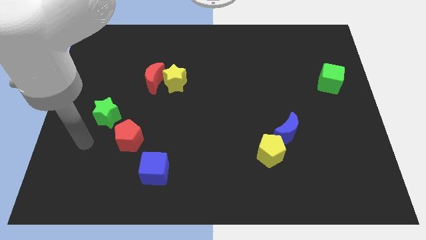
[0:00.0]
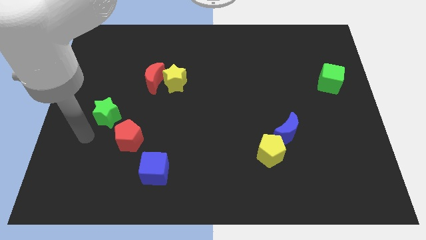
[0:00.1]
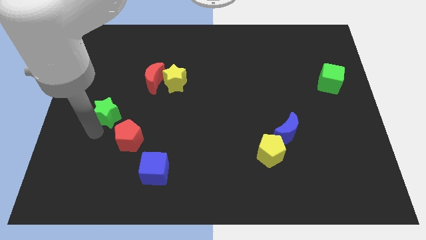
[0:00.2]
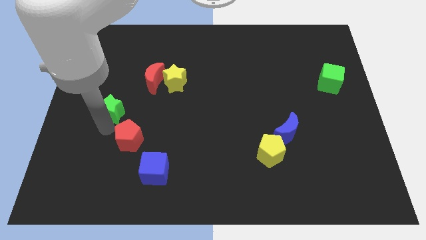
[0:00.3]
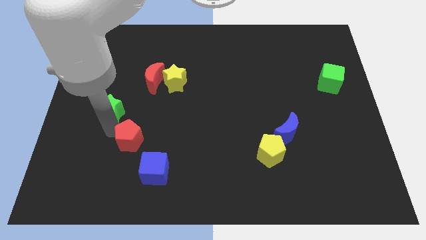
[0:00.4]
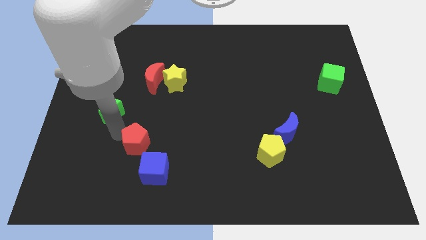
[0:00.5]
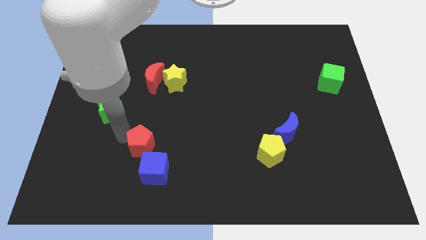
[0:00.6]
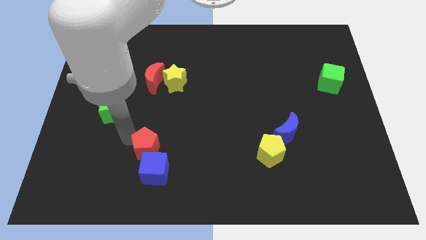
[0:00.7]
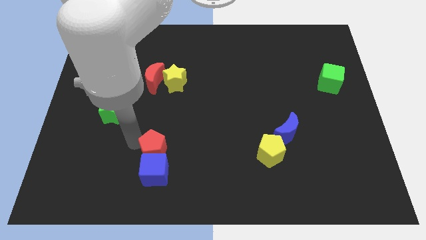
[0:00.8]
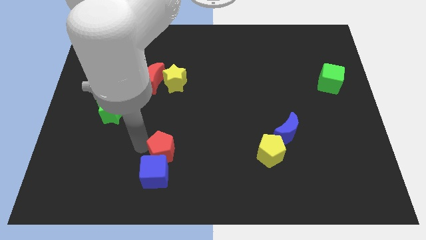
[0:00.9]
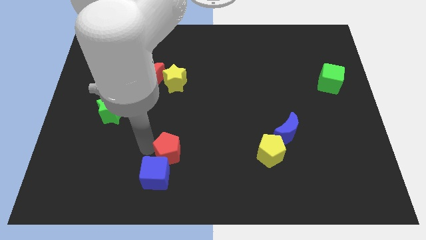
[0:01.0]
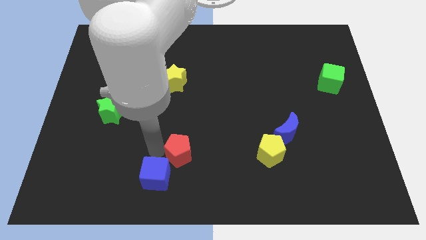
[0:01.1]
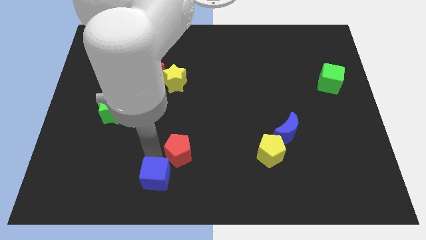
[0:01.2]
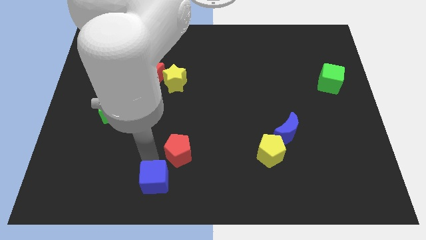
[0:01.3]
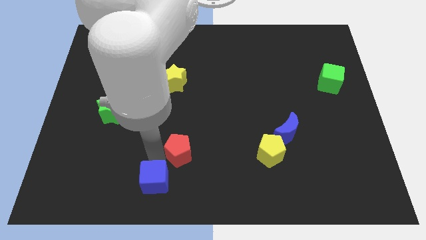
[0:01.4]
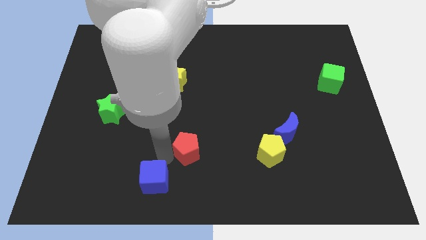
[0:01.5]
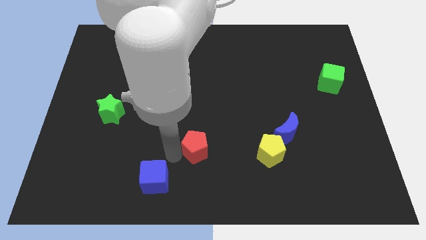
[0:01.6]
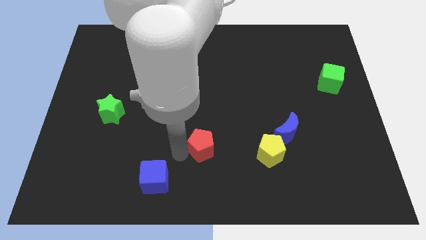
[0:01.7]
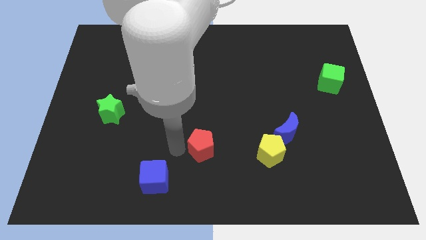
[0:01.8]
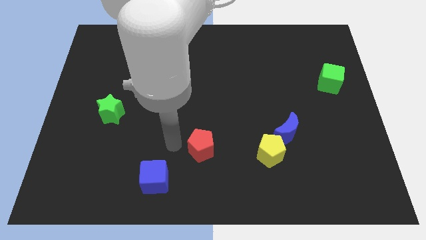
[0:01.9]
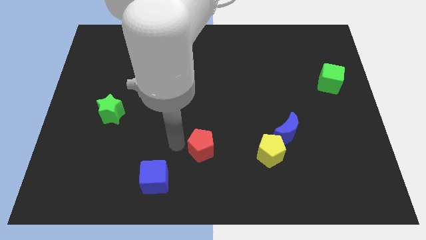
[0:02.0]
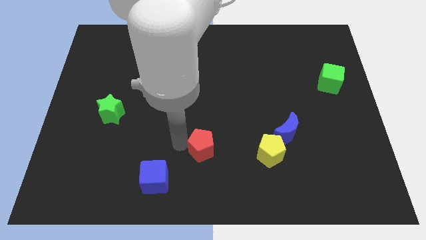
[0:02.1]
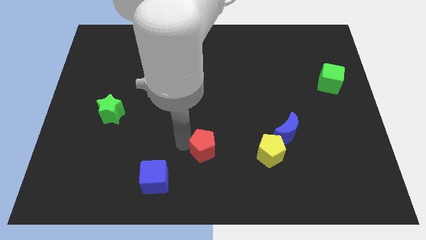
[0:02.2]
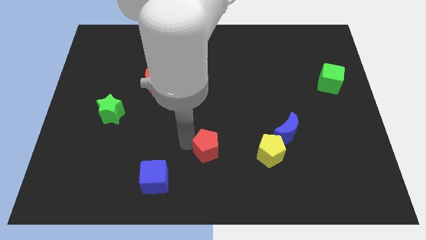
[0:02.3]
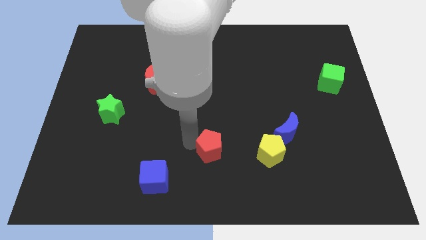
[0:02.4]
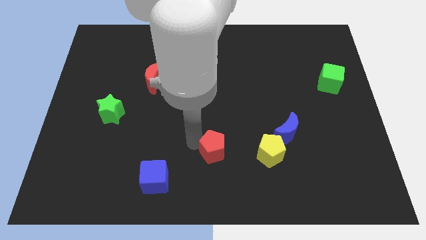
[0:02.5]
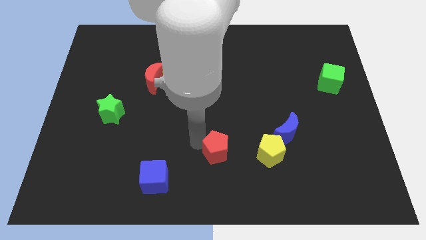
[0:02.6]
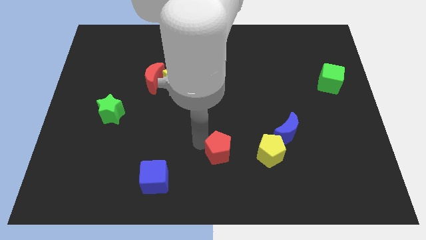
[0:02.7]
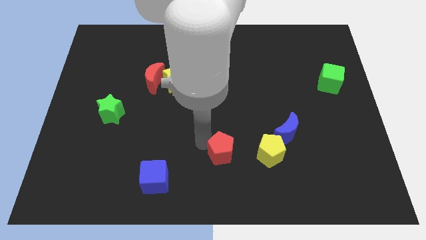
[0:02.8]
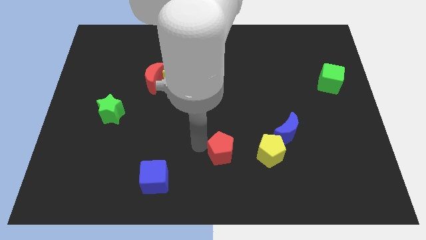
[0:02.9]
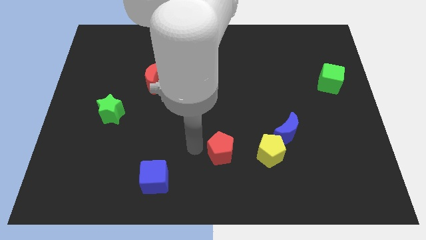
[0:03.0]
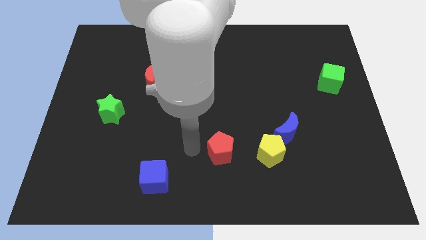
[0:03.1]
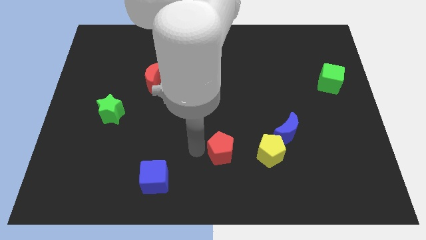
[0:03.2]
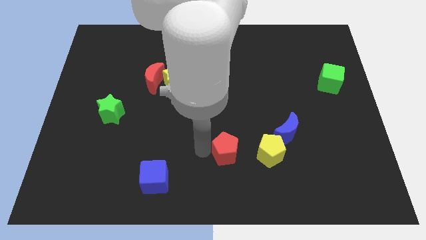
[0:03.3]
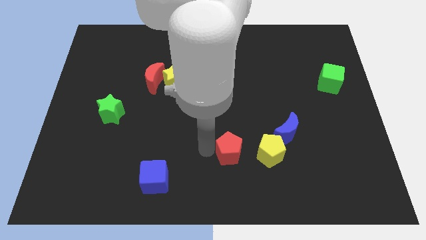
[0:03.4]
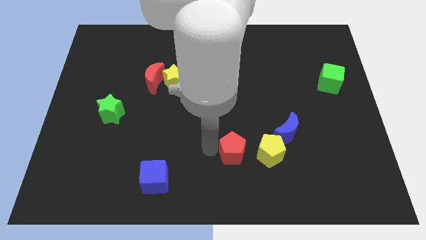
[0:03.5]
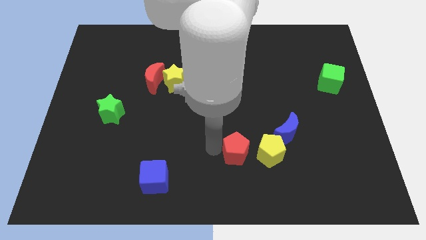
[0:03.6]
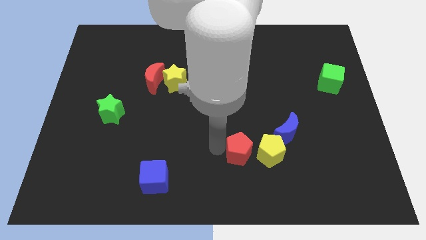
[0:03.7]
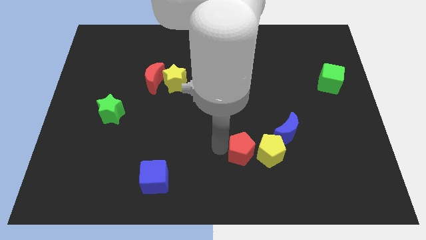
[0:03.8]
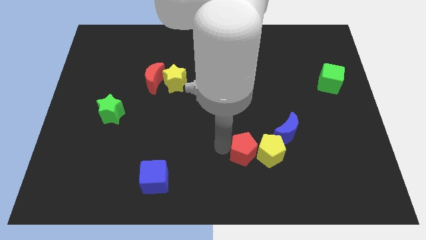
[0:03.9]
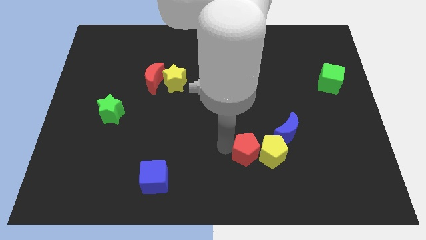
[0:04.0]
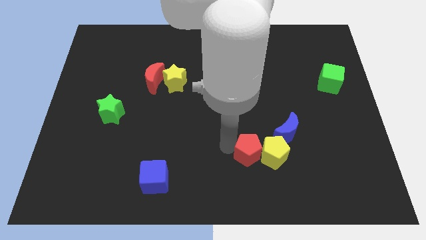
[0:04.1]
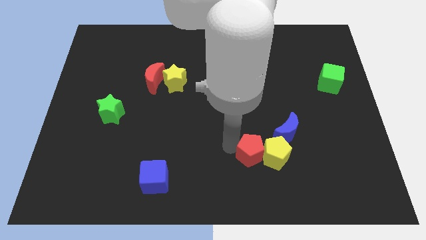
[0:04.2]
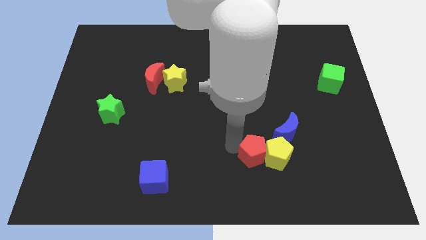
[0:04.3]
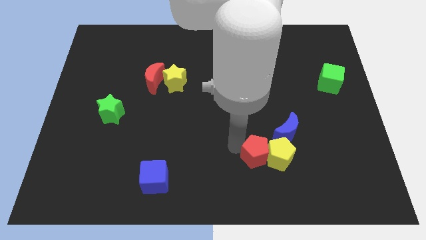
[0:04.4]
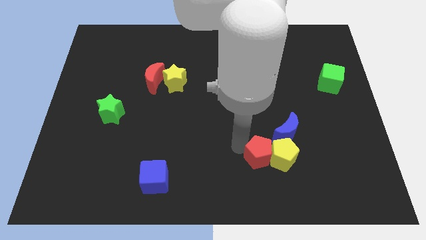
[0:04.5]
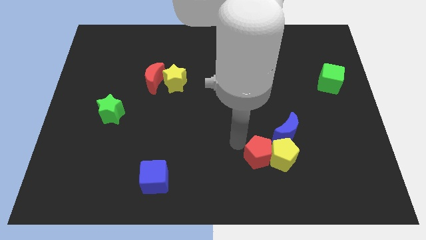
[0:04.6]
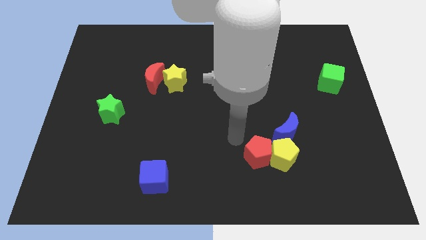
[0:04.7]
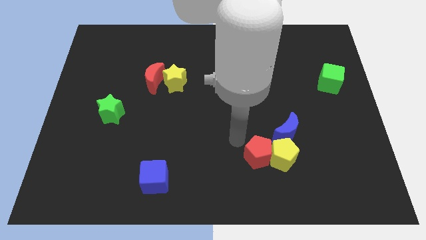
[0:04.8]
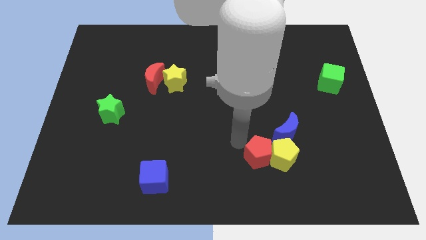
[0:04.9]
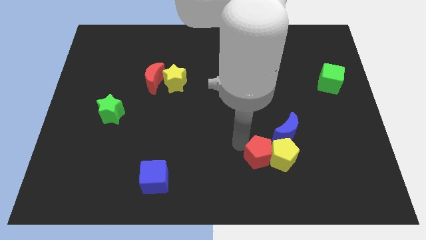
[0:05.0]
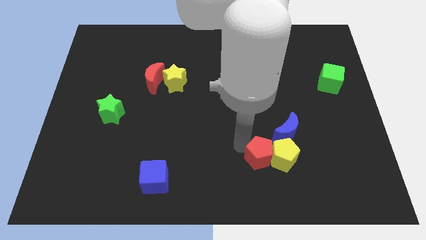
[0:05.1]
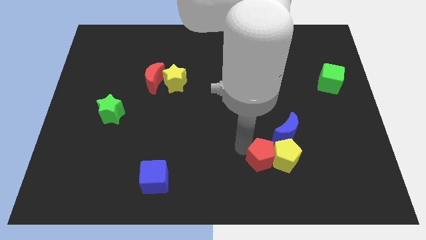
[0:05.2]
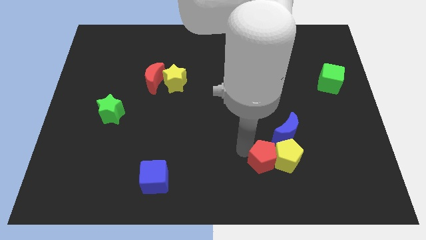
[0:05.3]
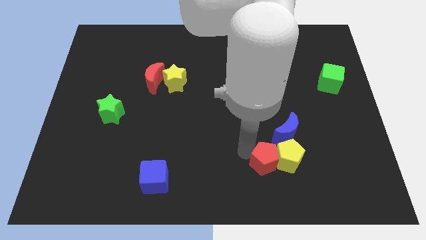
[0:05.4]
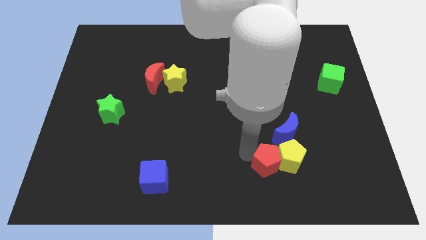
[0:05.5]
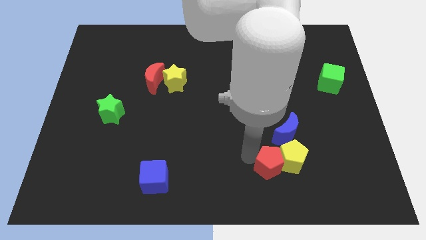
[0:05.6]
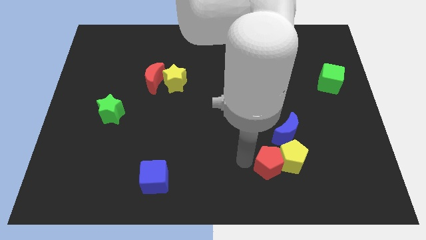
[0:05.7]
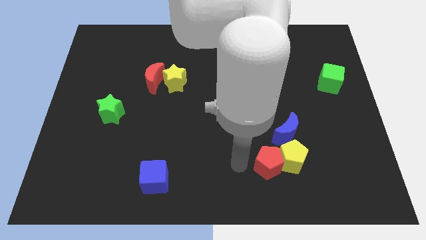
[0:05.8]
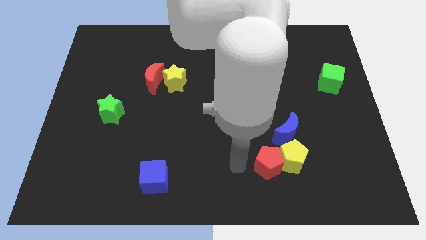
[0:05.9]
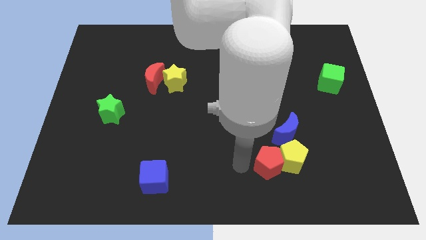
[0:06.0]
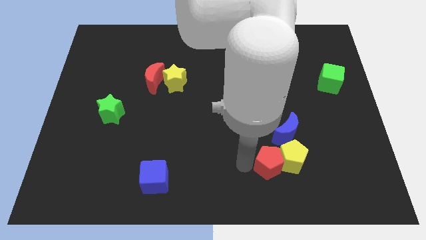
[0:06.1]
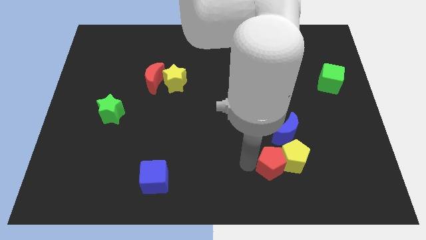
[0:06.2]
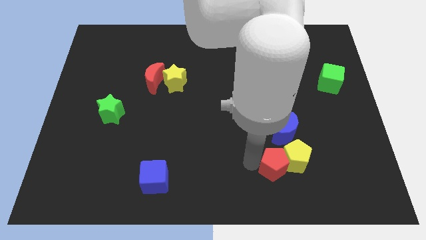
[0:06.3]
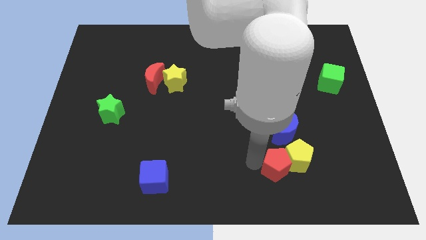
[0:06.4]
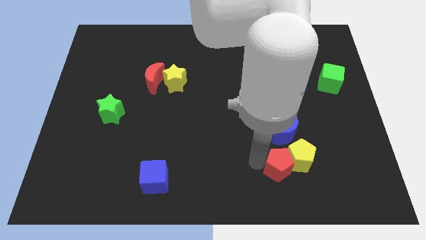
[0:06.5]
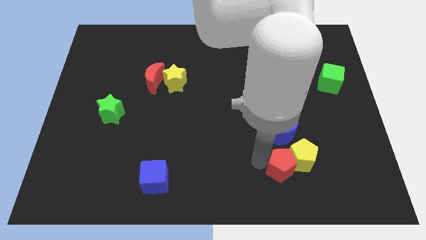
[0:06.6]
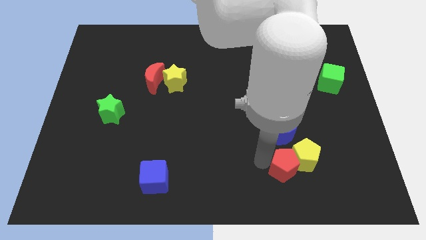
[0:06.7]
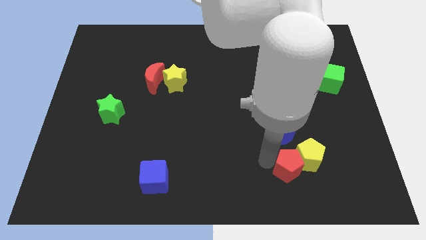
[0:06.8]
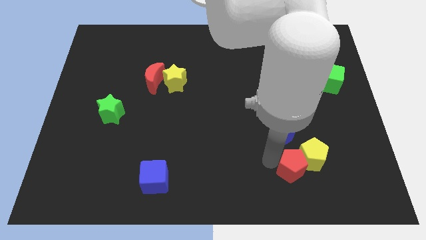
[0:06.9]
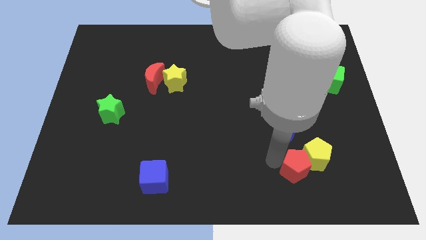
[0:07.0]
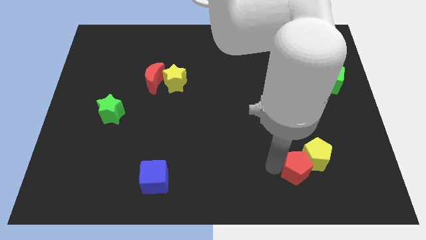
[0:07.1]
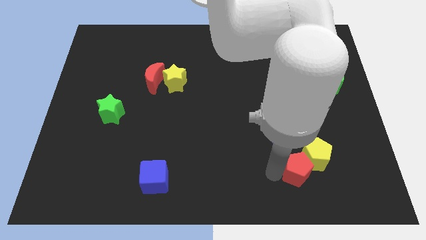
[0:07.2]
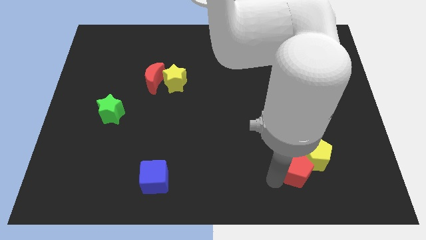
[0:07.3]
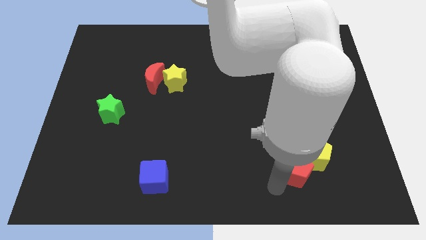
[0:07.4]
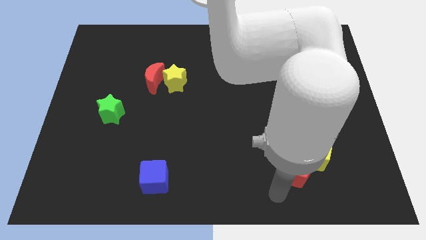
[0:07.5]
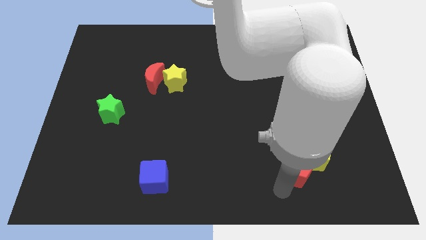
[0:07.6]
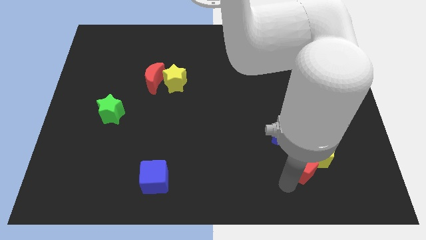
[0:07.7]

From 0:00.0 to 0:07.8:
move the red pentagon to the bottom right of the blue moon
